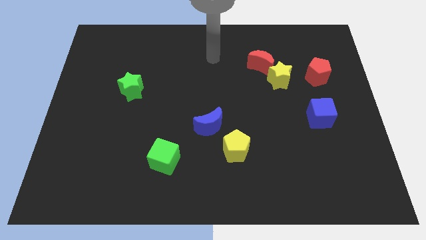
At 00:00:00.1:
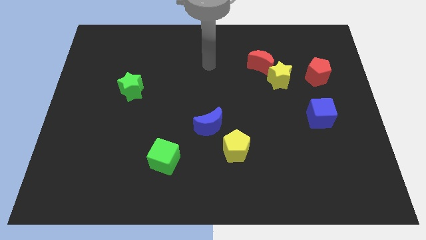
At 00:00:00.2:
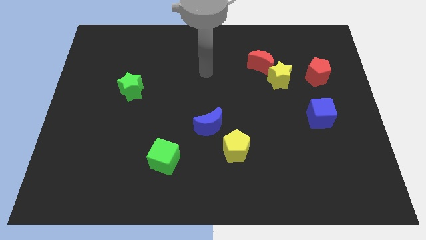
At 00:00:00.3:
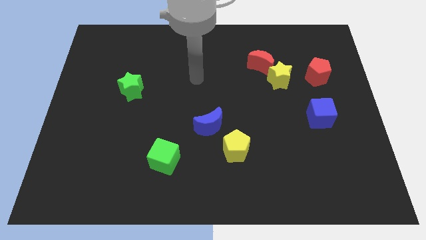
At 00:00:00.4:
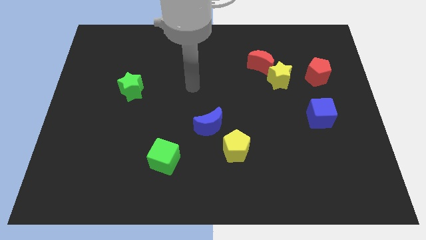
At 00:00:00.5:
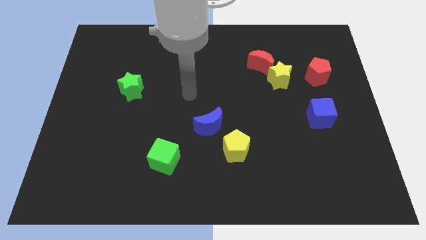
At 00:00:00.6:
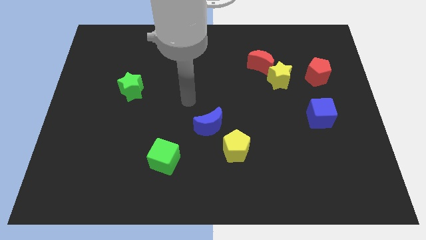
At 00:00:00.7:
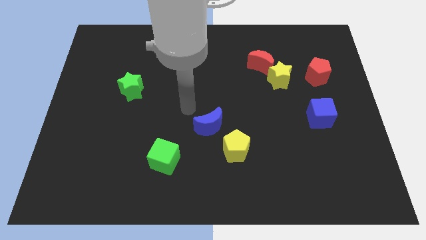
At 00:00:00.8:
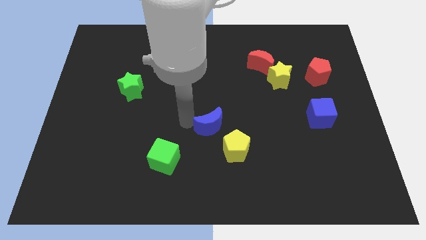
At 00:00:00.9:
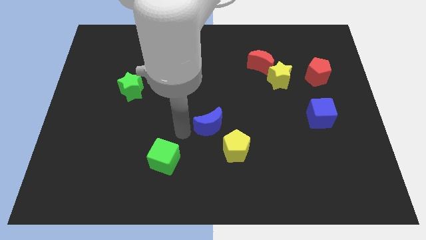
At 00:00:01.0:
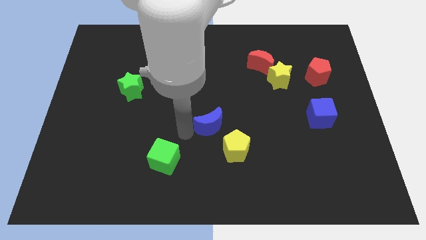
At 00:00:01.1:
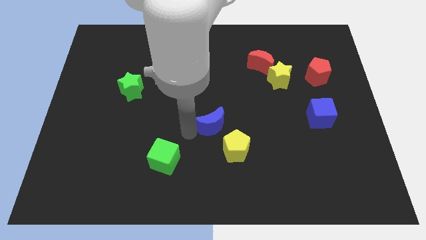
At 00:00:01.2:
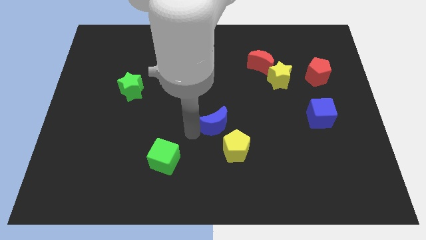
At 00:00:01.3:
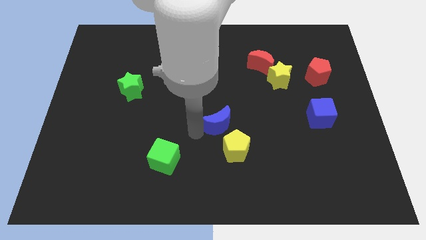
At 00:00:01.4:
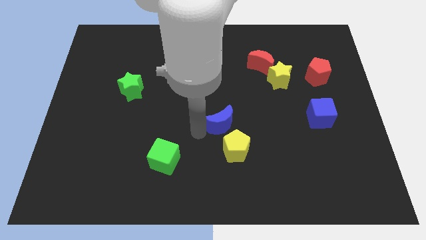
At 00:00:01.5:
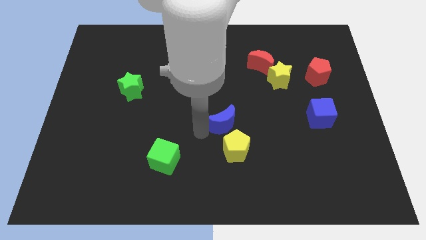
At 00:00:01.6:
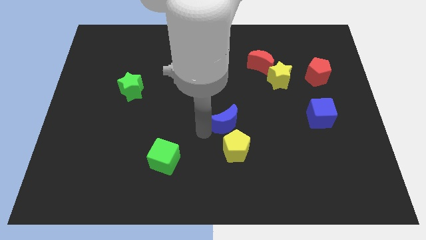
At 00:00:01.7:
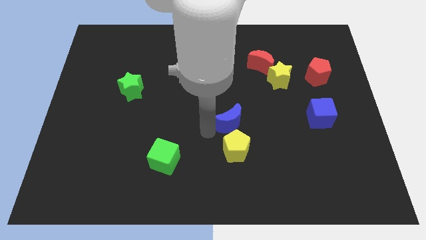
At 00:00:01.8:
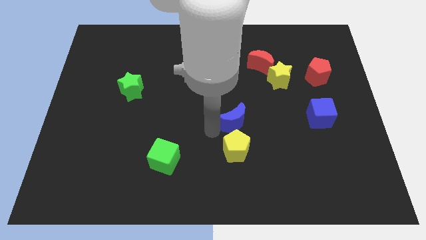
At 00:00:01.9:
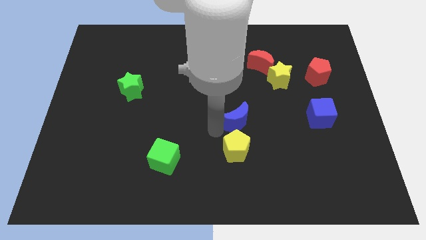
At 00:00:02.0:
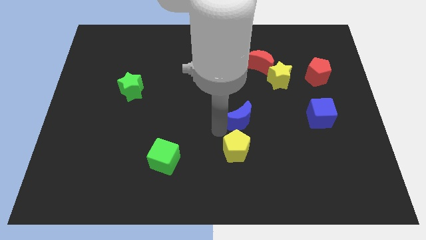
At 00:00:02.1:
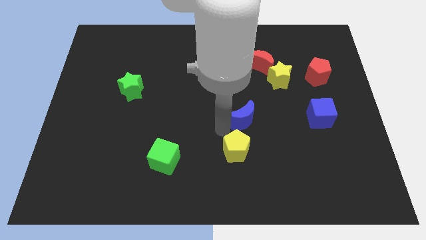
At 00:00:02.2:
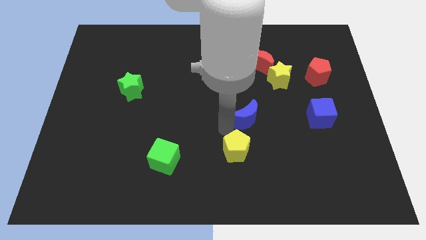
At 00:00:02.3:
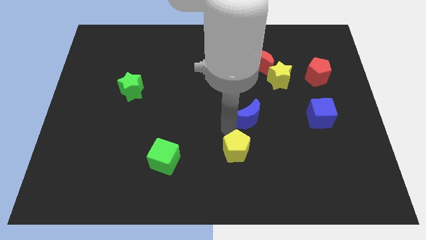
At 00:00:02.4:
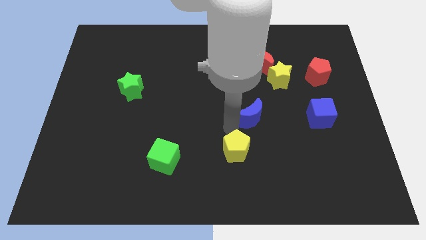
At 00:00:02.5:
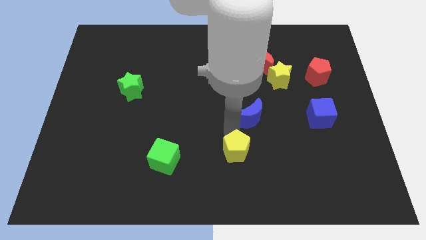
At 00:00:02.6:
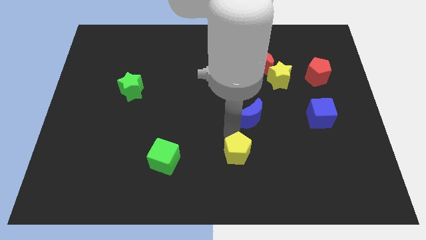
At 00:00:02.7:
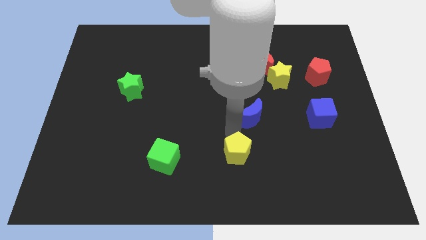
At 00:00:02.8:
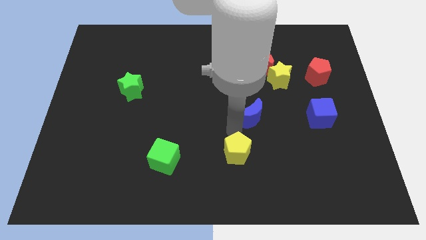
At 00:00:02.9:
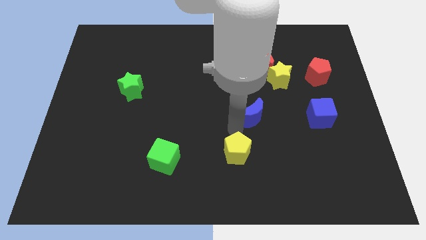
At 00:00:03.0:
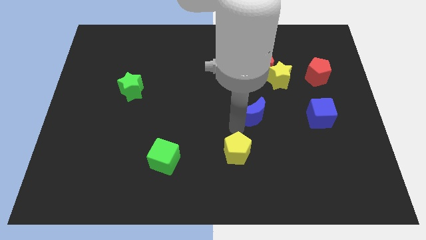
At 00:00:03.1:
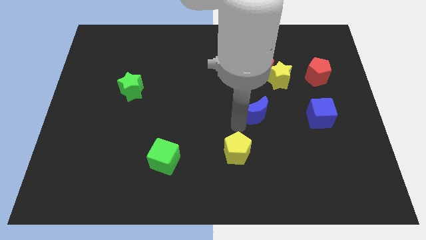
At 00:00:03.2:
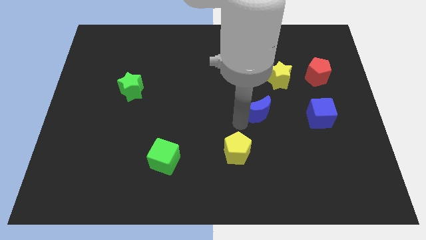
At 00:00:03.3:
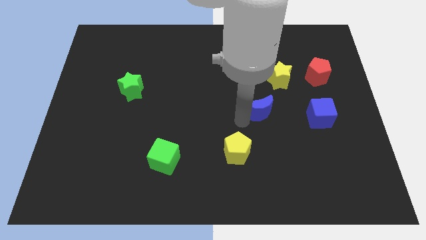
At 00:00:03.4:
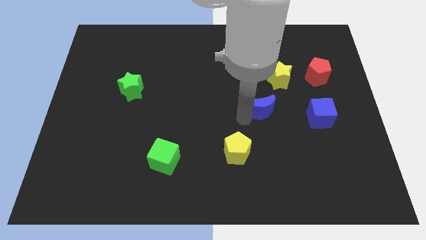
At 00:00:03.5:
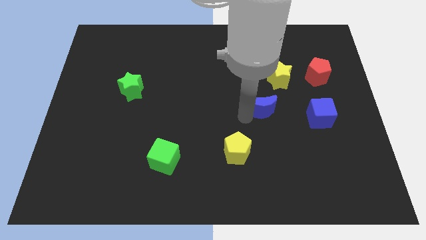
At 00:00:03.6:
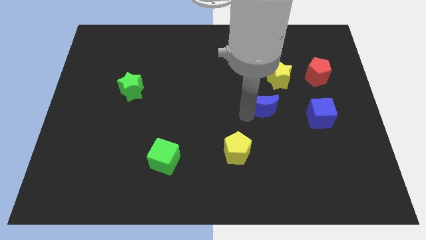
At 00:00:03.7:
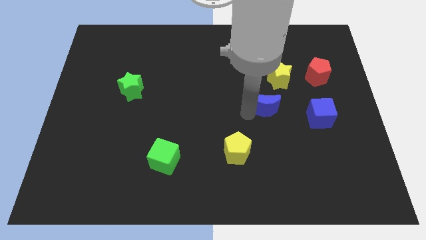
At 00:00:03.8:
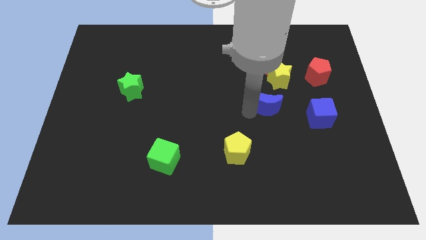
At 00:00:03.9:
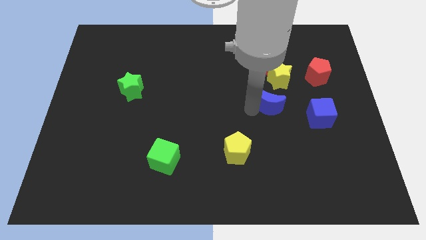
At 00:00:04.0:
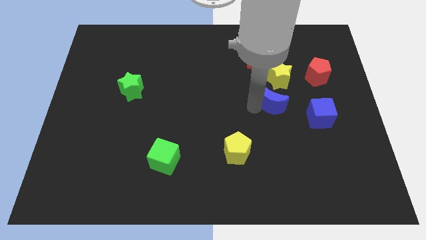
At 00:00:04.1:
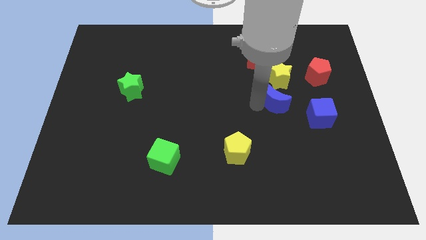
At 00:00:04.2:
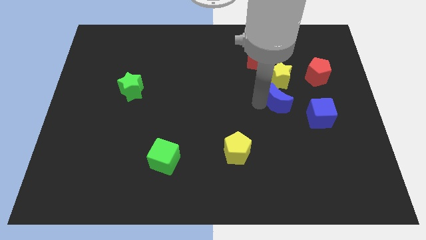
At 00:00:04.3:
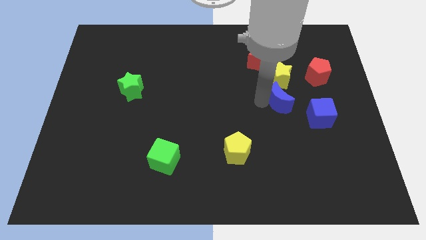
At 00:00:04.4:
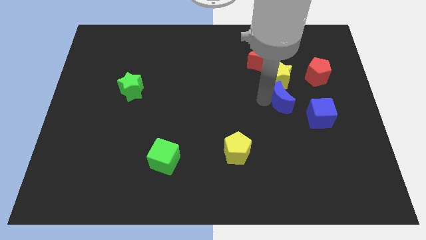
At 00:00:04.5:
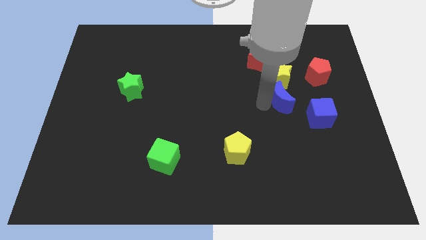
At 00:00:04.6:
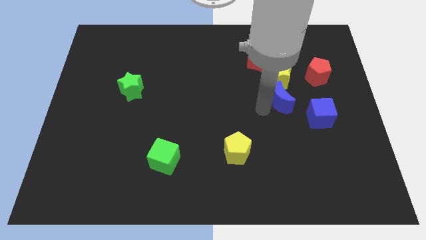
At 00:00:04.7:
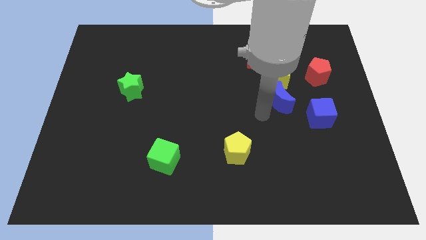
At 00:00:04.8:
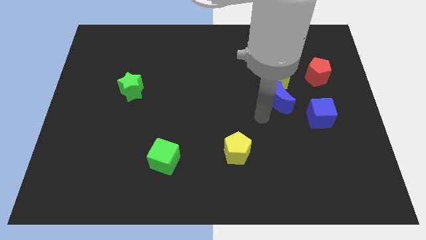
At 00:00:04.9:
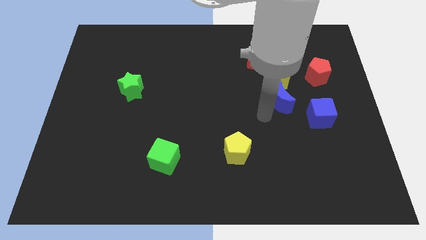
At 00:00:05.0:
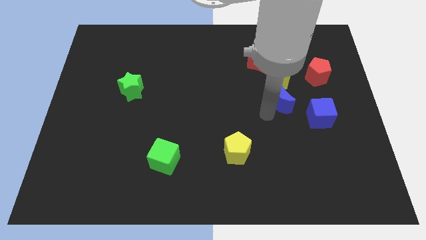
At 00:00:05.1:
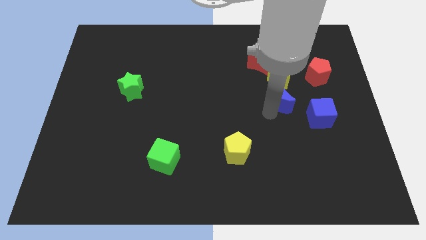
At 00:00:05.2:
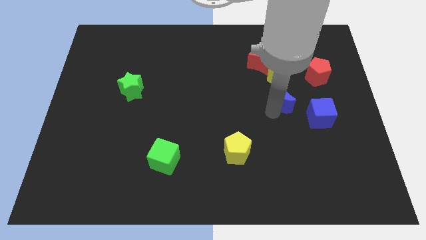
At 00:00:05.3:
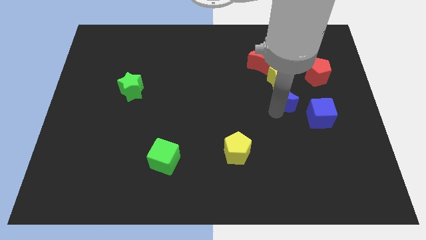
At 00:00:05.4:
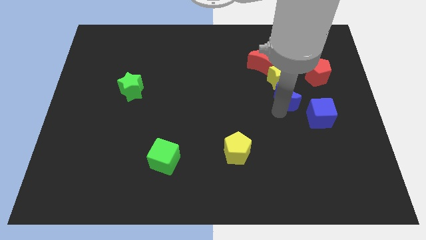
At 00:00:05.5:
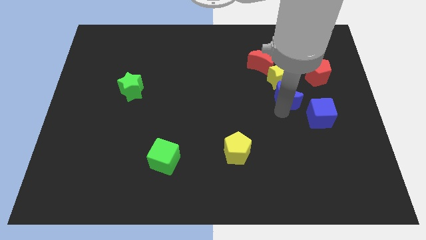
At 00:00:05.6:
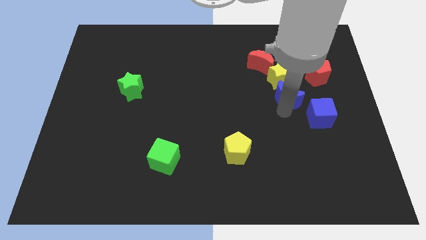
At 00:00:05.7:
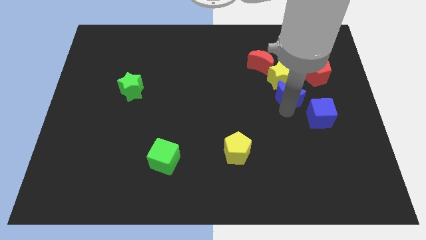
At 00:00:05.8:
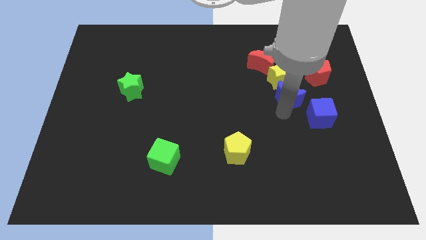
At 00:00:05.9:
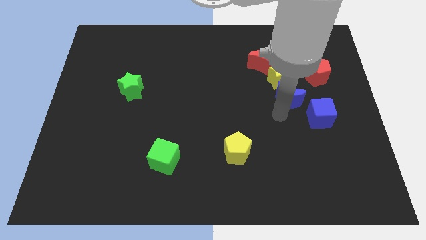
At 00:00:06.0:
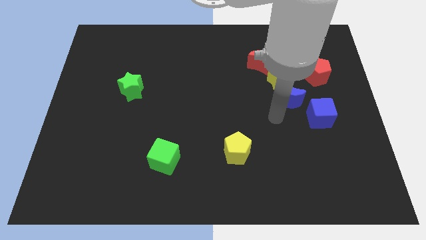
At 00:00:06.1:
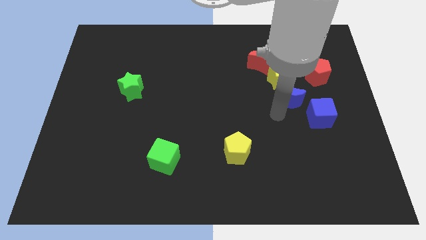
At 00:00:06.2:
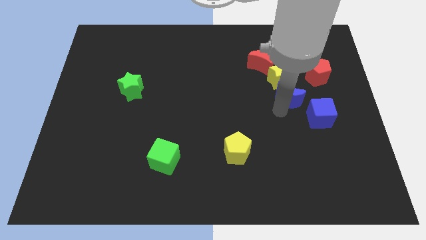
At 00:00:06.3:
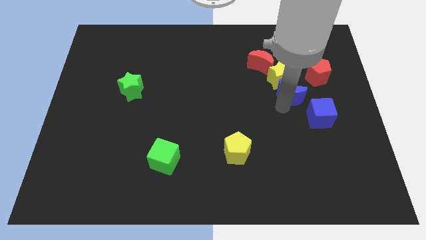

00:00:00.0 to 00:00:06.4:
push the blue moon diagonally down and to the right of the red moon
